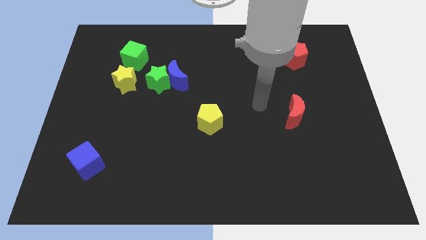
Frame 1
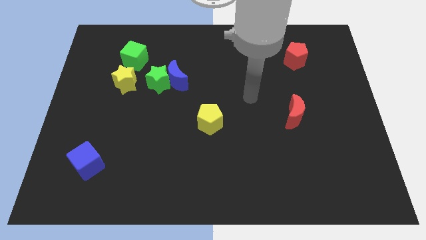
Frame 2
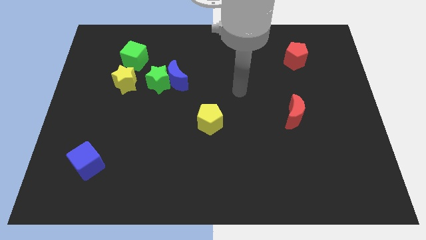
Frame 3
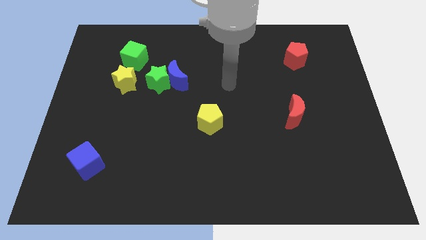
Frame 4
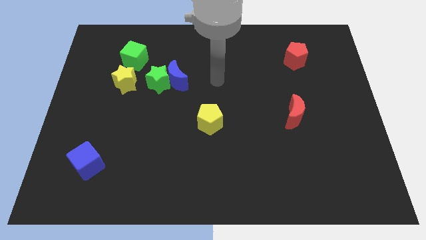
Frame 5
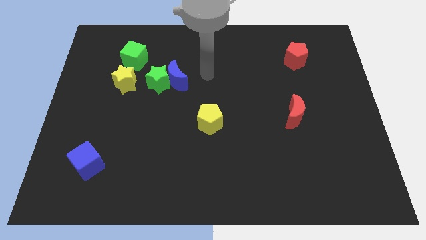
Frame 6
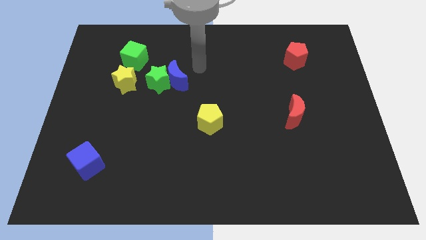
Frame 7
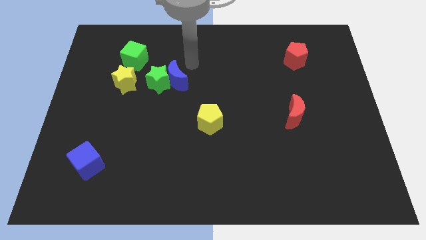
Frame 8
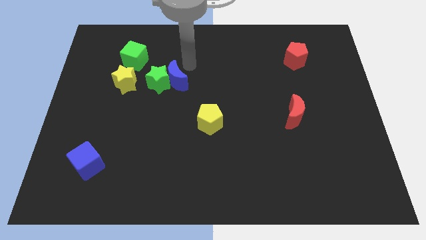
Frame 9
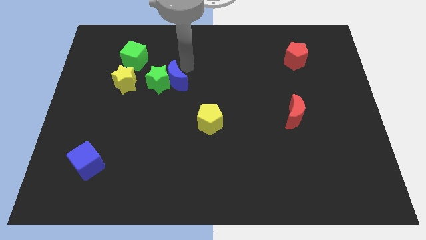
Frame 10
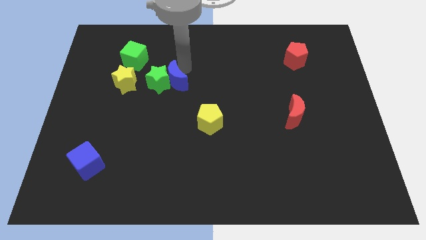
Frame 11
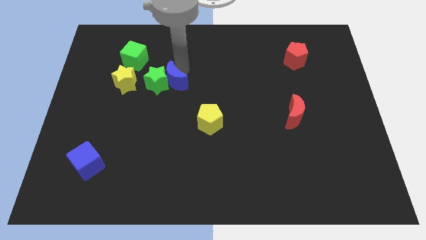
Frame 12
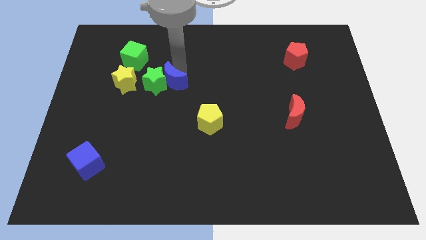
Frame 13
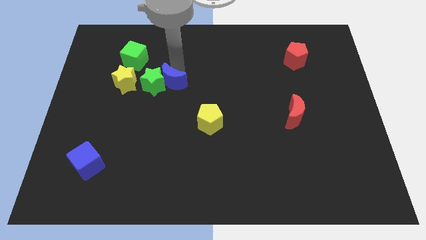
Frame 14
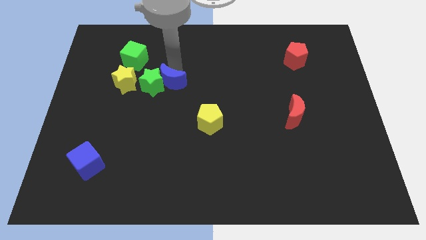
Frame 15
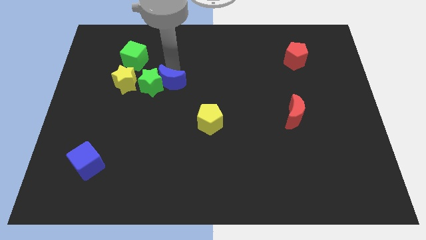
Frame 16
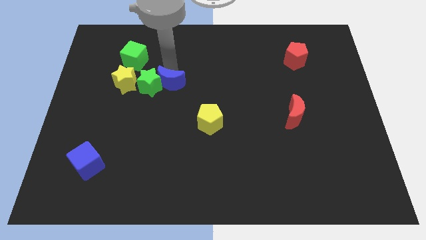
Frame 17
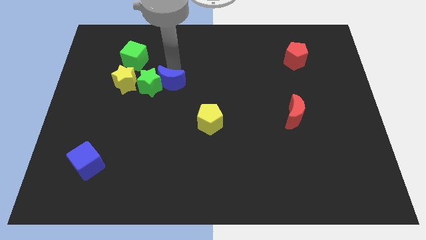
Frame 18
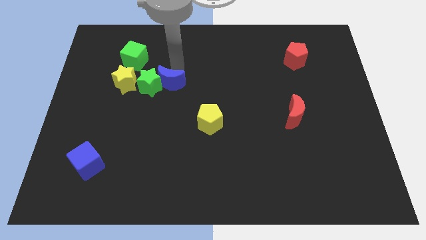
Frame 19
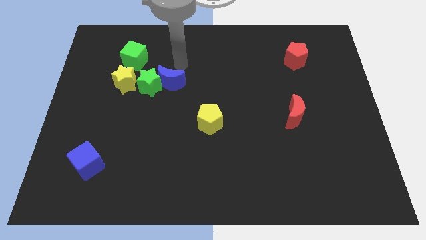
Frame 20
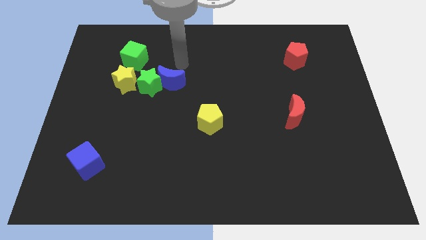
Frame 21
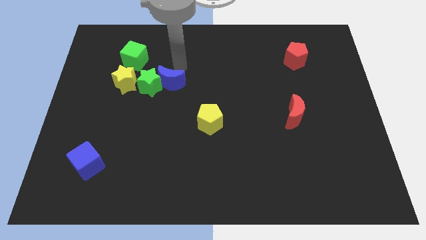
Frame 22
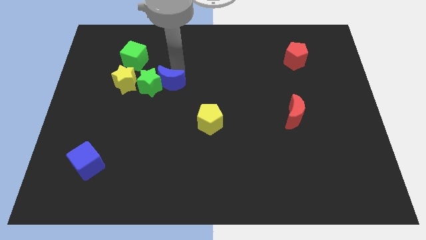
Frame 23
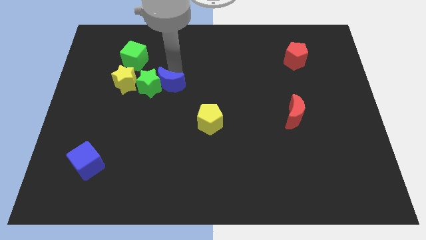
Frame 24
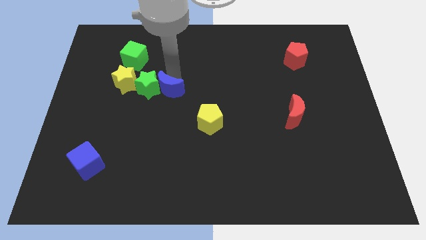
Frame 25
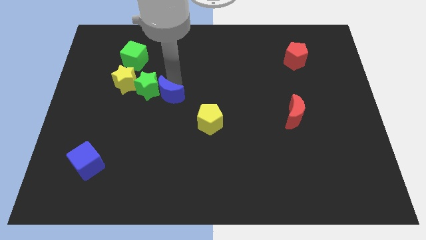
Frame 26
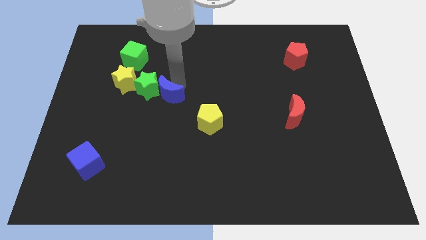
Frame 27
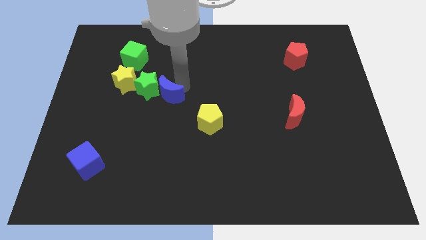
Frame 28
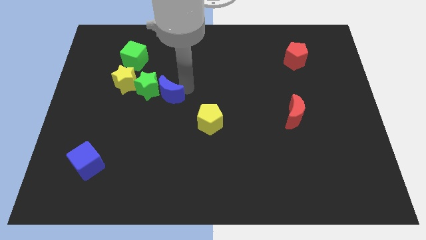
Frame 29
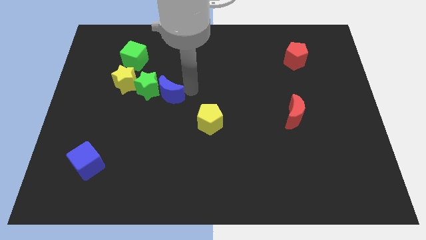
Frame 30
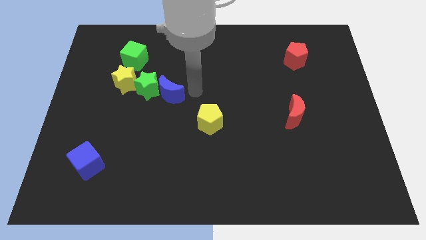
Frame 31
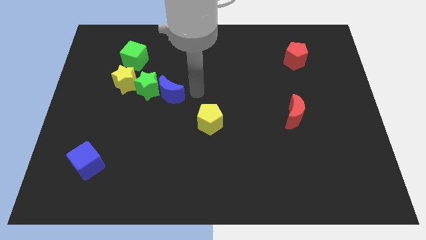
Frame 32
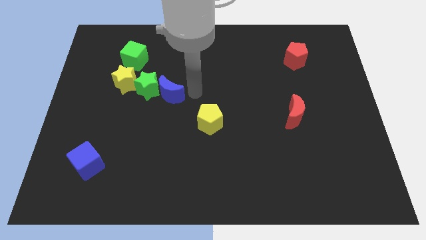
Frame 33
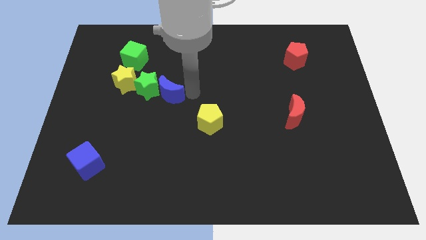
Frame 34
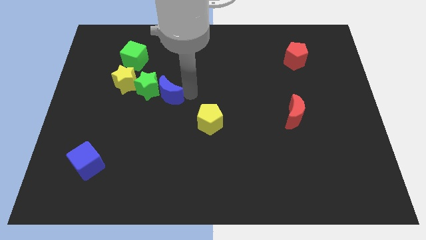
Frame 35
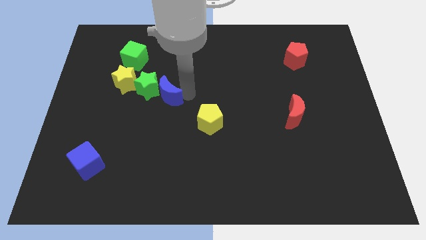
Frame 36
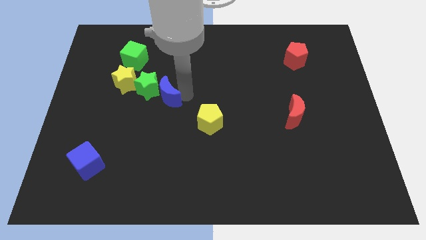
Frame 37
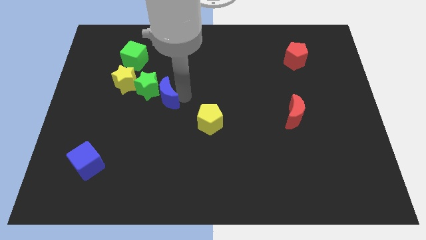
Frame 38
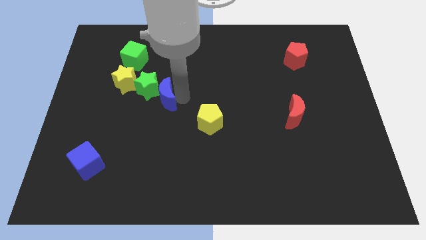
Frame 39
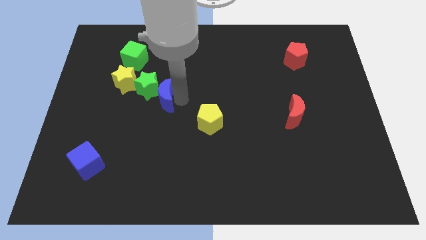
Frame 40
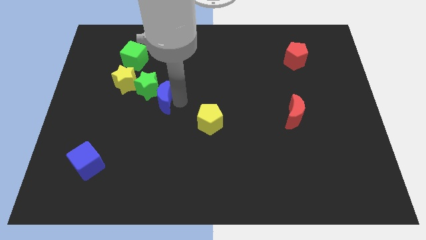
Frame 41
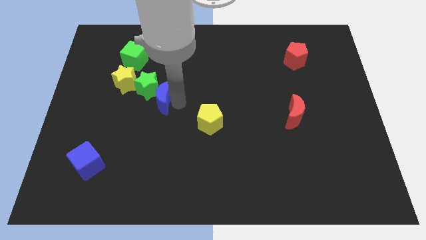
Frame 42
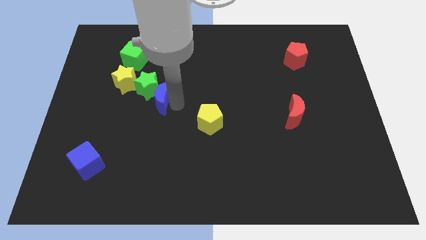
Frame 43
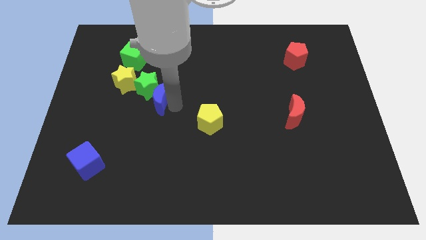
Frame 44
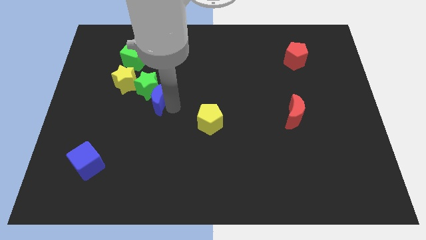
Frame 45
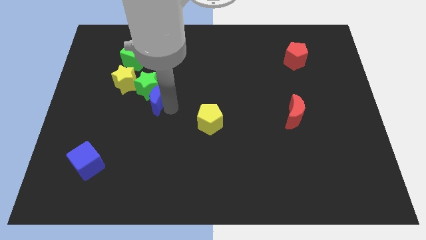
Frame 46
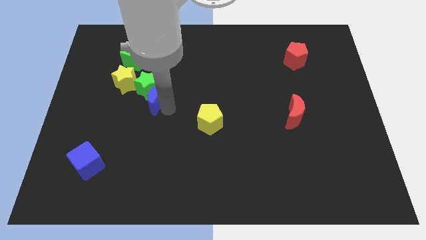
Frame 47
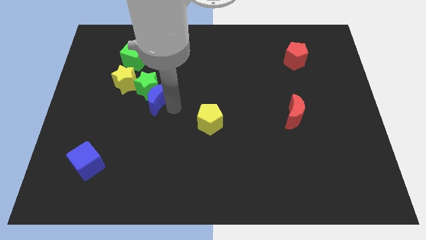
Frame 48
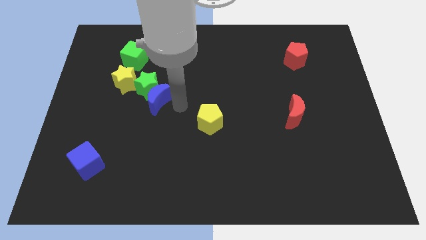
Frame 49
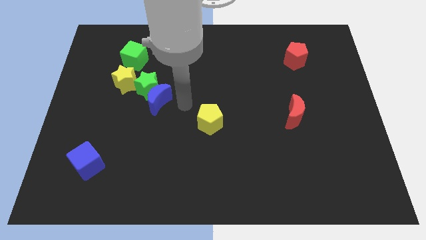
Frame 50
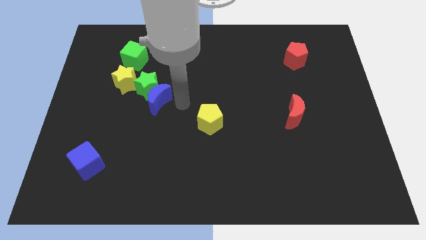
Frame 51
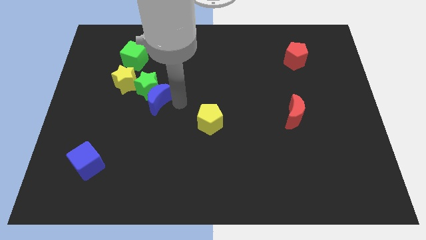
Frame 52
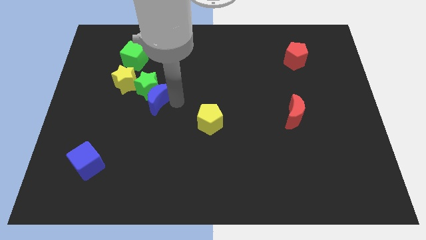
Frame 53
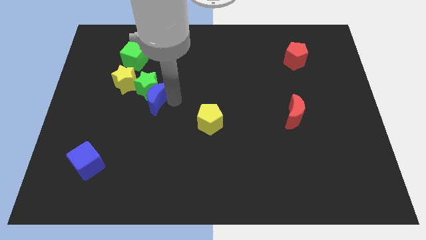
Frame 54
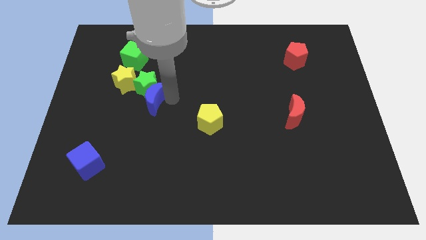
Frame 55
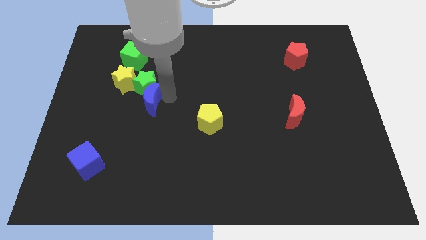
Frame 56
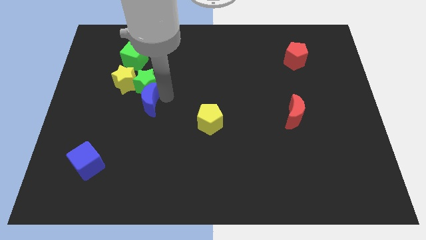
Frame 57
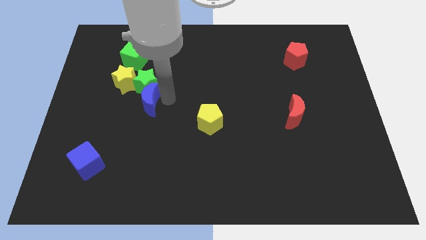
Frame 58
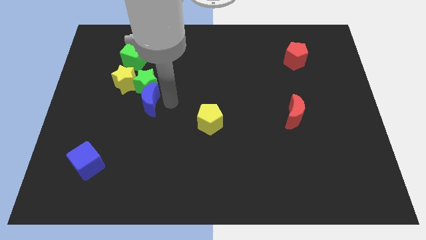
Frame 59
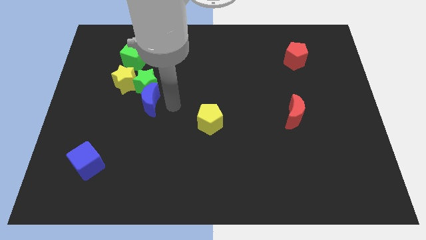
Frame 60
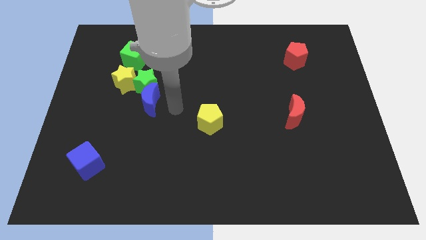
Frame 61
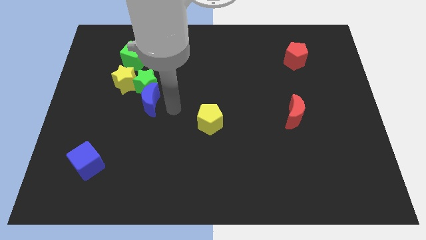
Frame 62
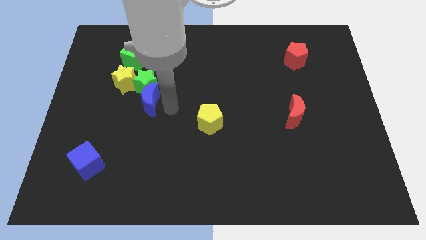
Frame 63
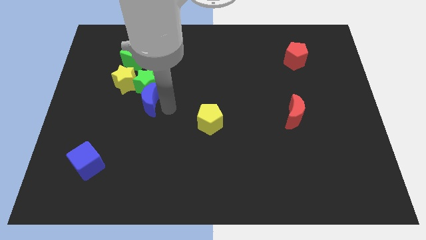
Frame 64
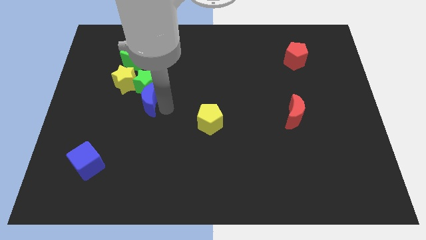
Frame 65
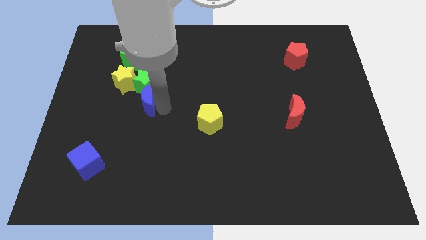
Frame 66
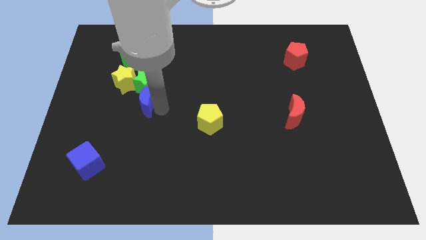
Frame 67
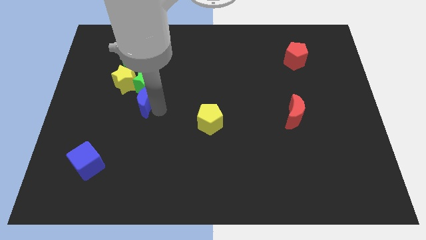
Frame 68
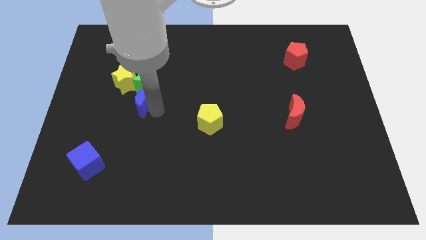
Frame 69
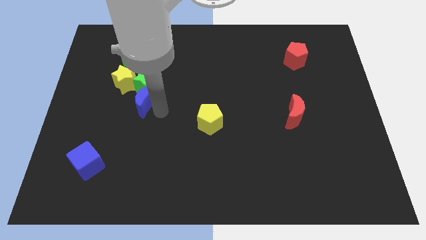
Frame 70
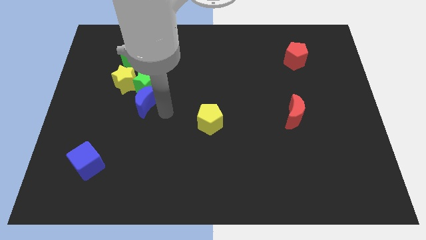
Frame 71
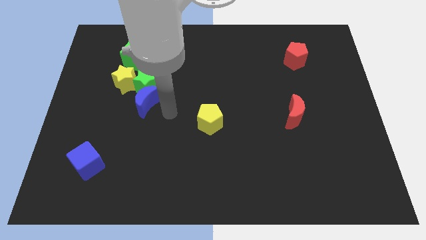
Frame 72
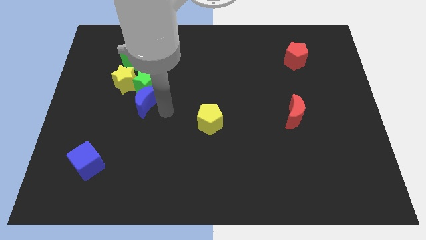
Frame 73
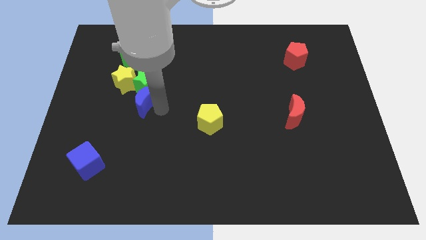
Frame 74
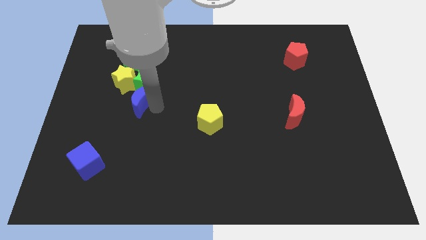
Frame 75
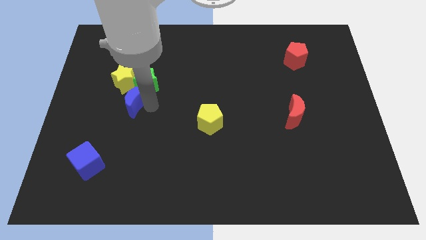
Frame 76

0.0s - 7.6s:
slightly push the blue moon to the left

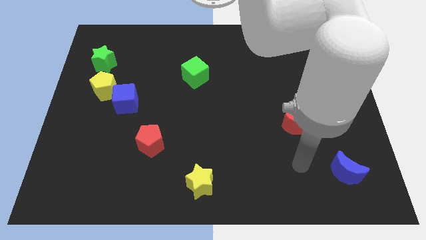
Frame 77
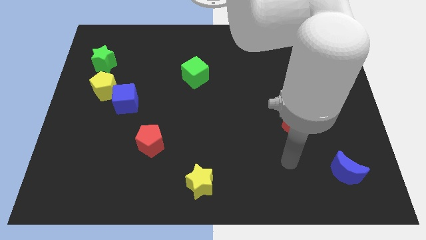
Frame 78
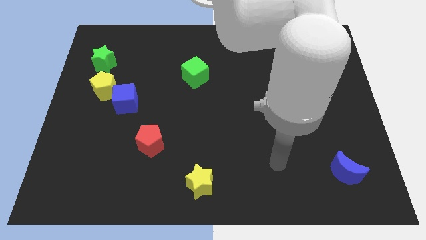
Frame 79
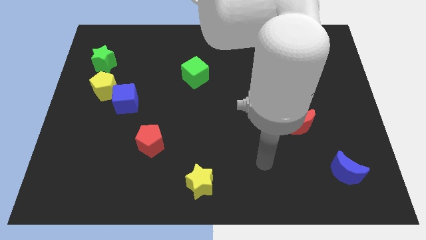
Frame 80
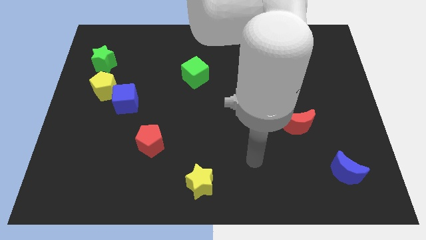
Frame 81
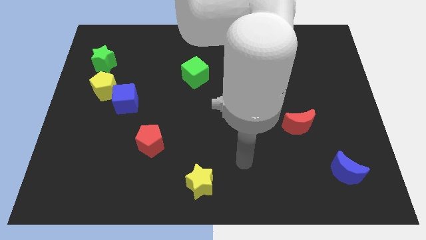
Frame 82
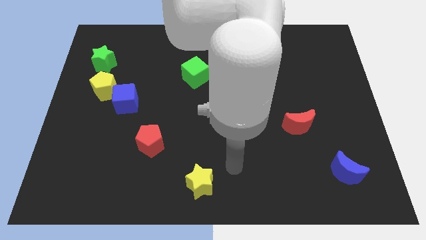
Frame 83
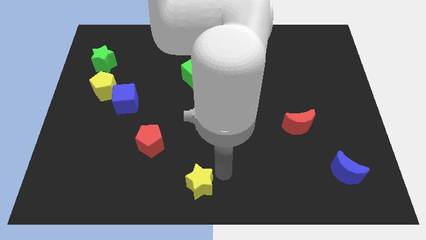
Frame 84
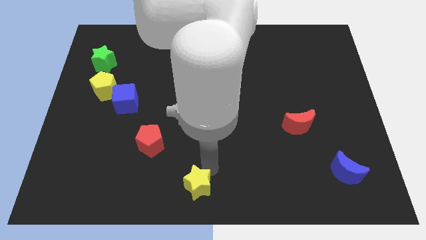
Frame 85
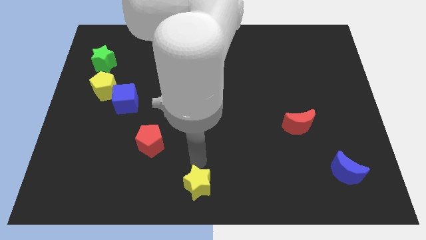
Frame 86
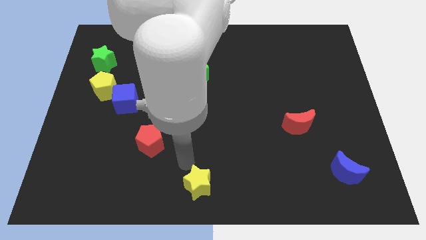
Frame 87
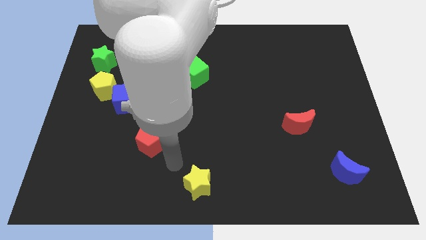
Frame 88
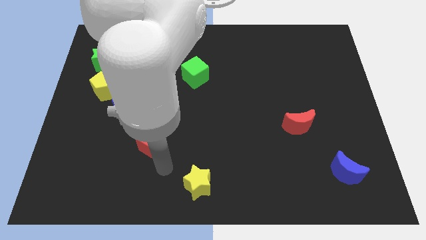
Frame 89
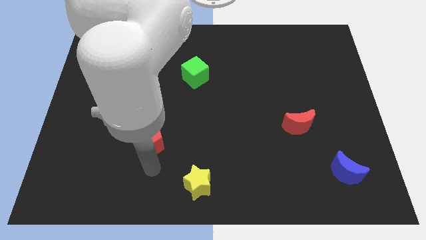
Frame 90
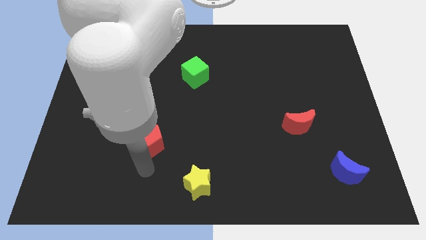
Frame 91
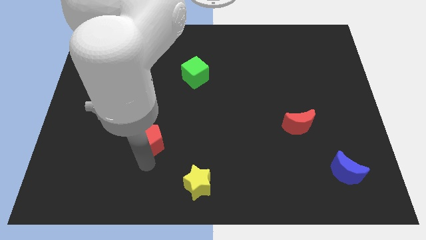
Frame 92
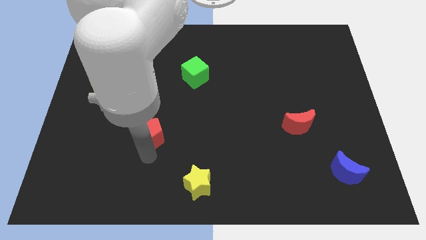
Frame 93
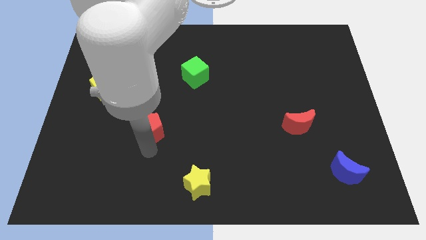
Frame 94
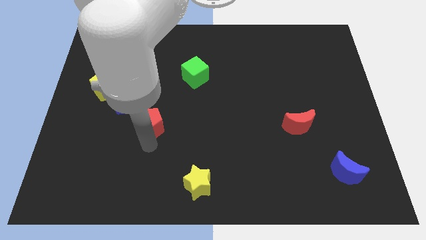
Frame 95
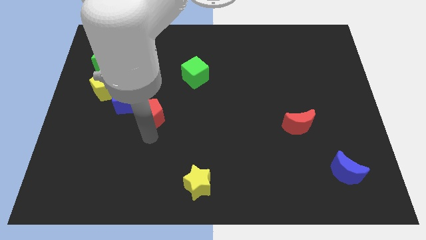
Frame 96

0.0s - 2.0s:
push the red pentagon upwards slightly
